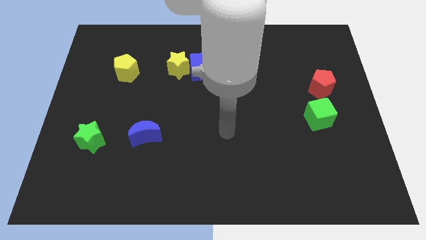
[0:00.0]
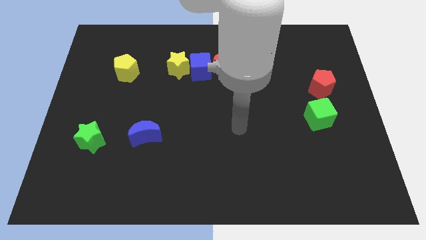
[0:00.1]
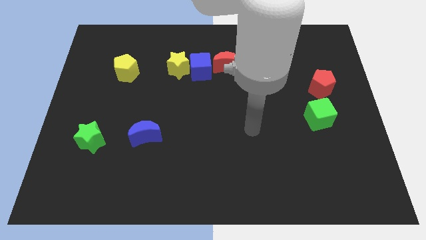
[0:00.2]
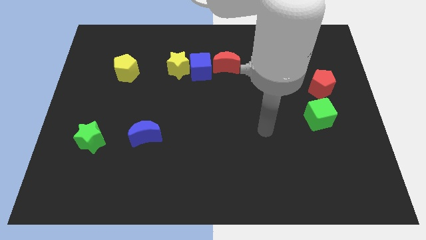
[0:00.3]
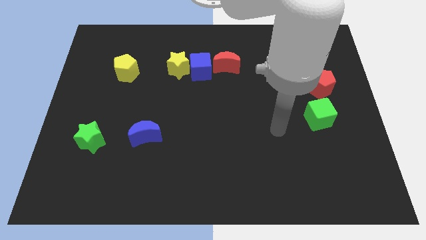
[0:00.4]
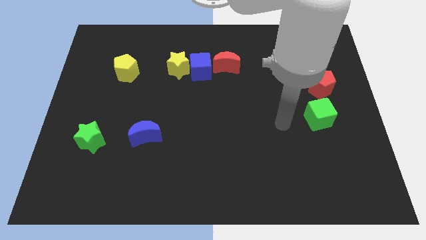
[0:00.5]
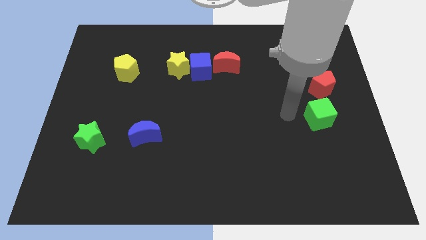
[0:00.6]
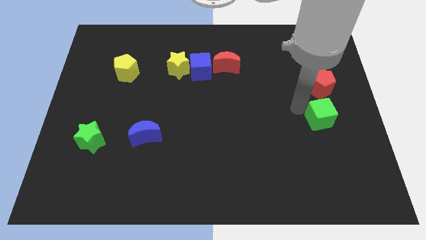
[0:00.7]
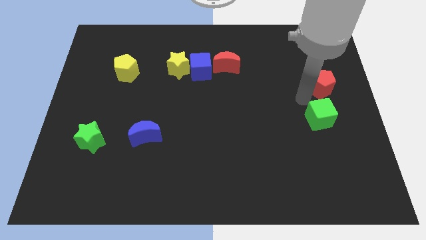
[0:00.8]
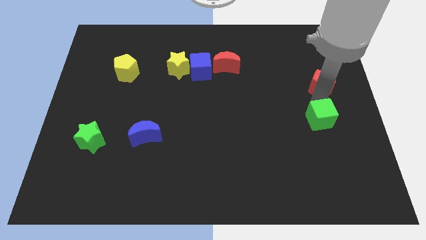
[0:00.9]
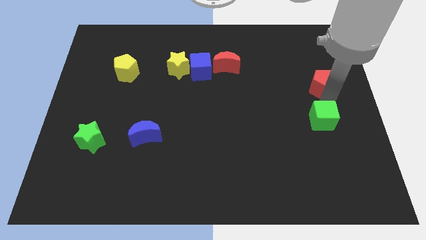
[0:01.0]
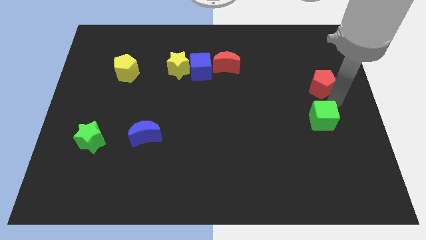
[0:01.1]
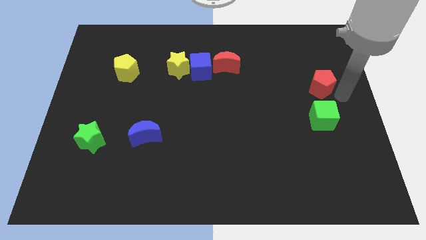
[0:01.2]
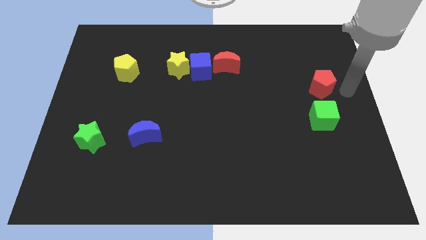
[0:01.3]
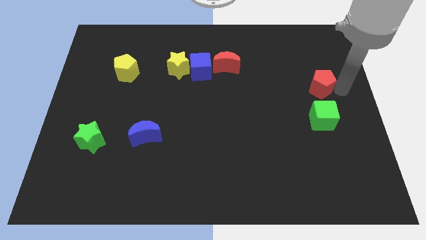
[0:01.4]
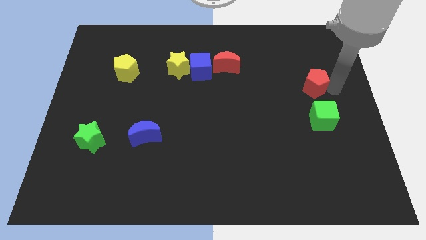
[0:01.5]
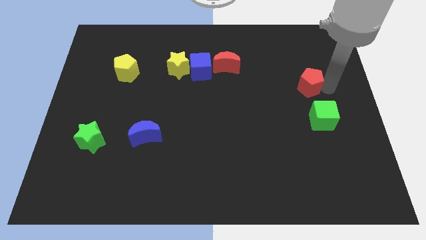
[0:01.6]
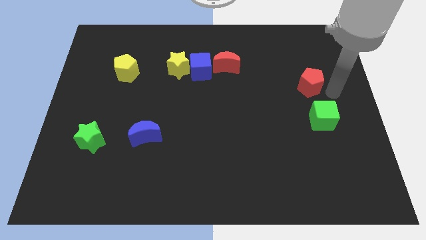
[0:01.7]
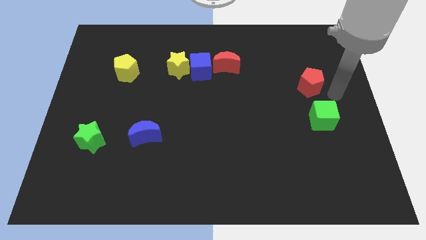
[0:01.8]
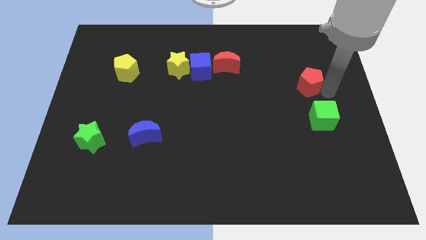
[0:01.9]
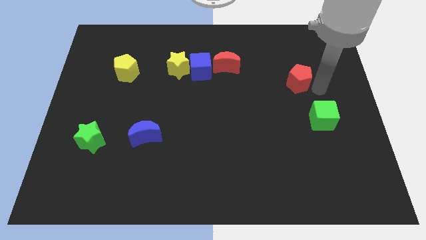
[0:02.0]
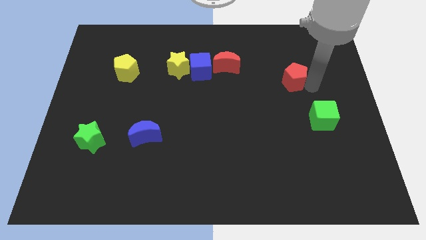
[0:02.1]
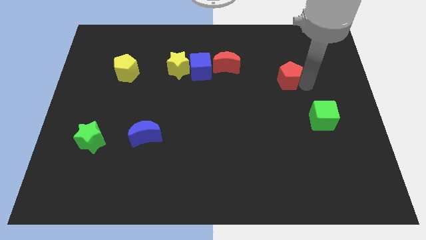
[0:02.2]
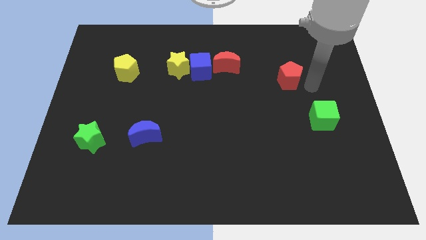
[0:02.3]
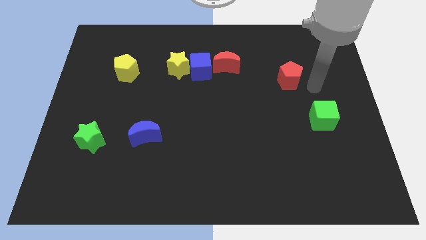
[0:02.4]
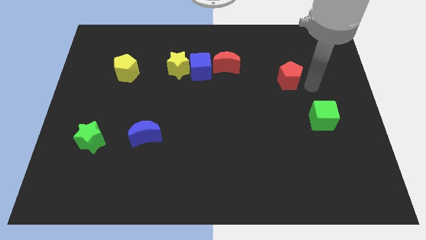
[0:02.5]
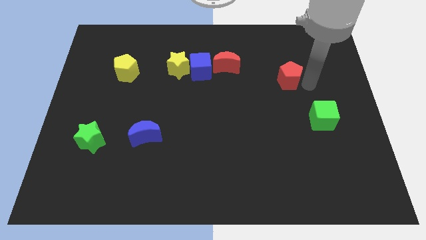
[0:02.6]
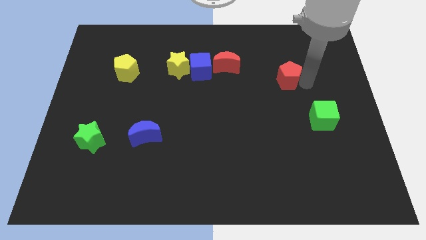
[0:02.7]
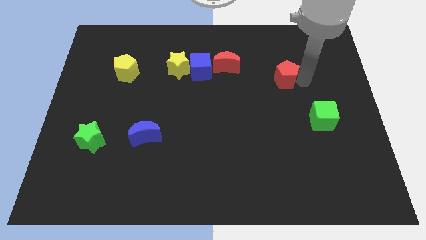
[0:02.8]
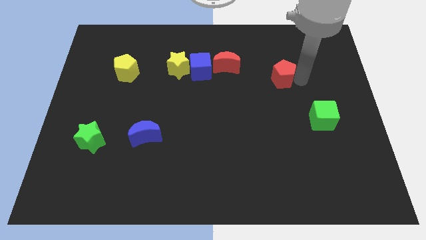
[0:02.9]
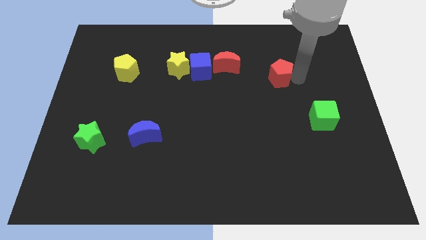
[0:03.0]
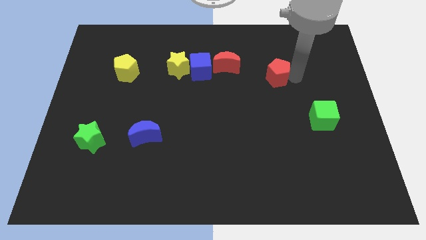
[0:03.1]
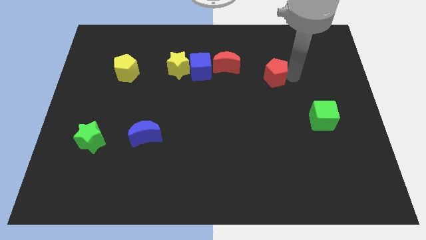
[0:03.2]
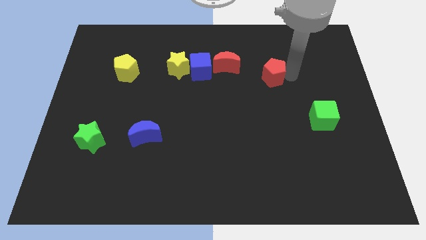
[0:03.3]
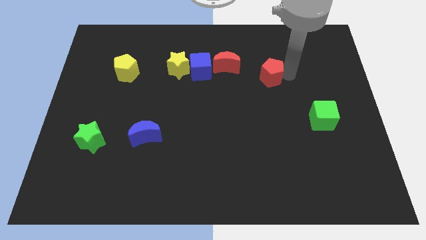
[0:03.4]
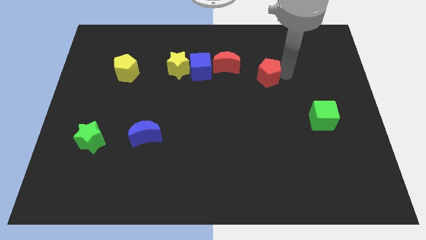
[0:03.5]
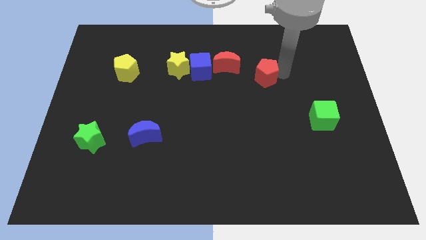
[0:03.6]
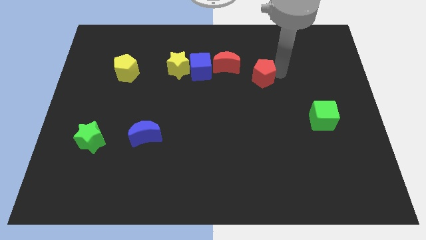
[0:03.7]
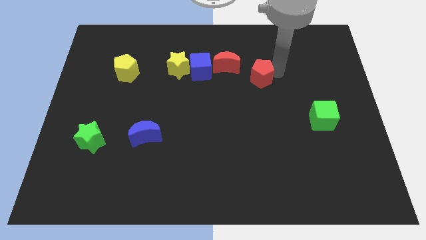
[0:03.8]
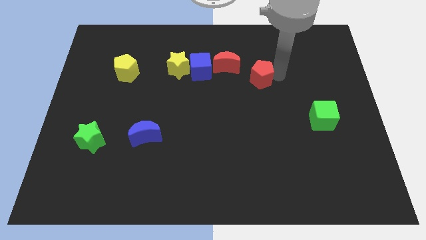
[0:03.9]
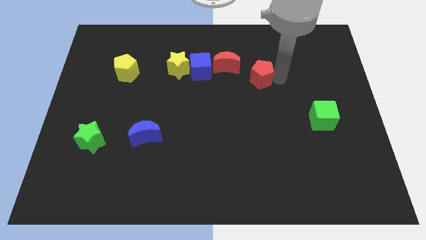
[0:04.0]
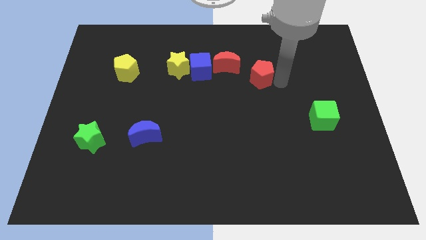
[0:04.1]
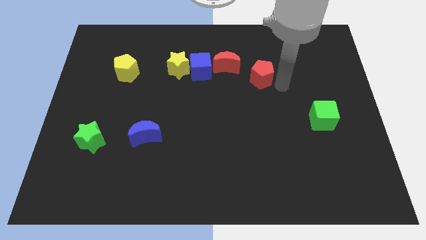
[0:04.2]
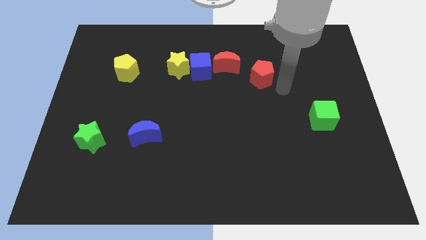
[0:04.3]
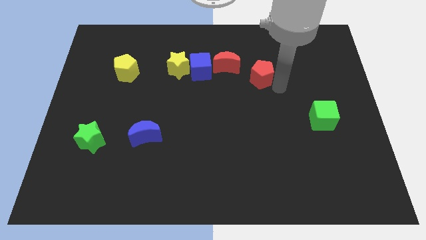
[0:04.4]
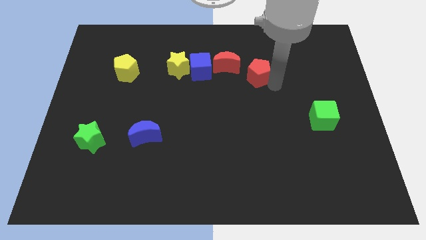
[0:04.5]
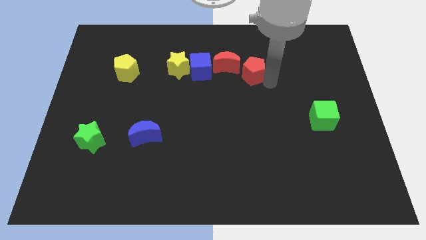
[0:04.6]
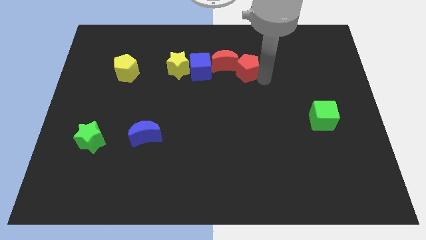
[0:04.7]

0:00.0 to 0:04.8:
push the red pentagon towards the red moon

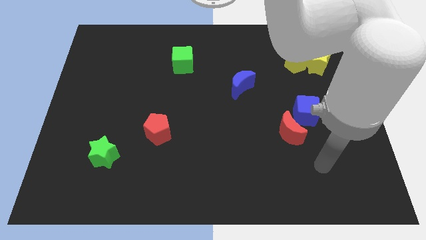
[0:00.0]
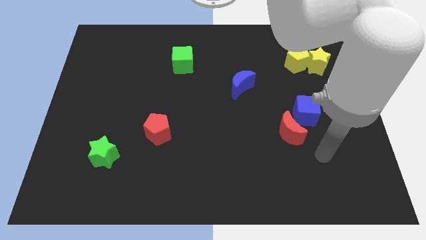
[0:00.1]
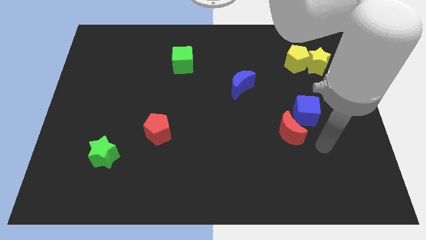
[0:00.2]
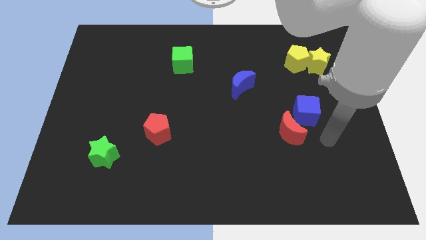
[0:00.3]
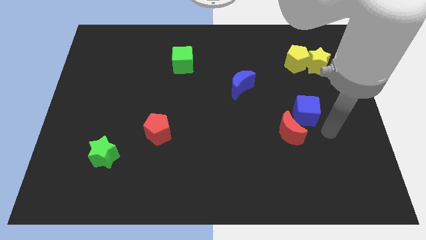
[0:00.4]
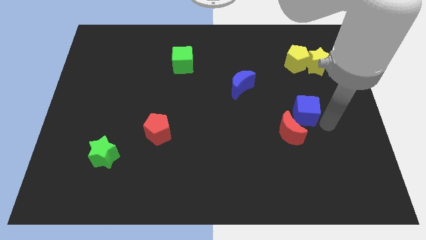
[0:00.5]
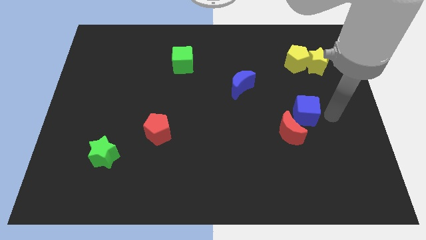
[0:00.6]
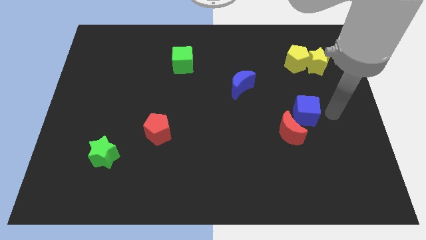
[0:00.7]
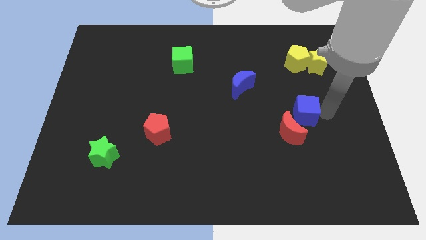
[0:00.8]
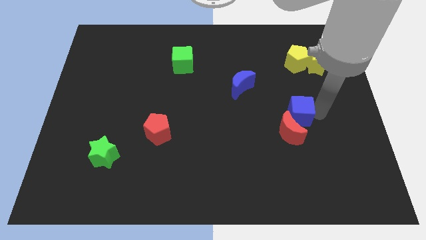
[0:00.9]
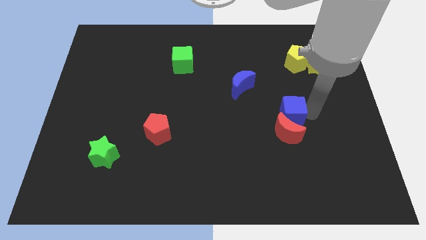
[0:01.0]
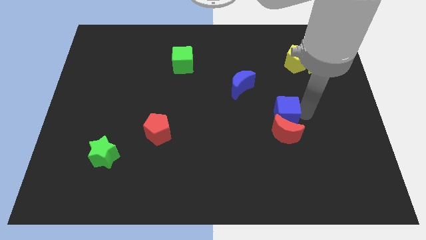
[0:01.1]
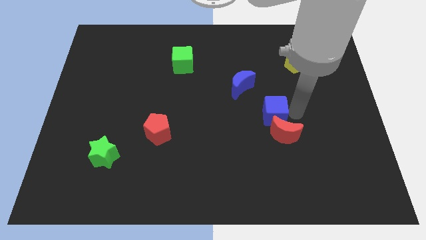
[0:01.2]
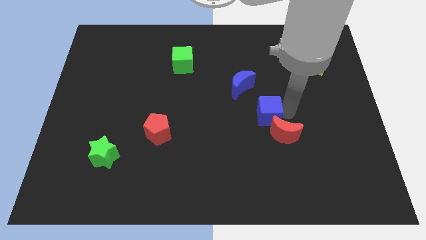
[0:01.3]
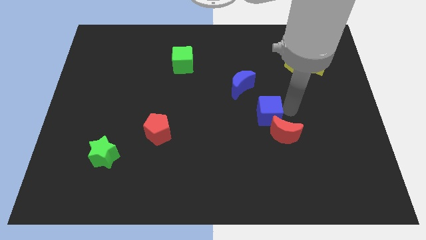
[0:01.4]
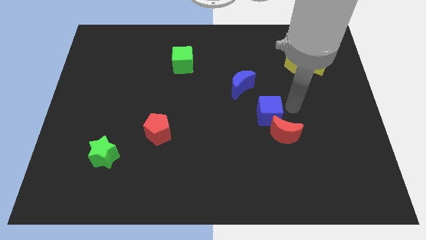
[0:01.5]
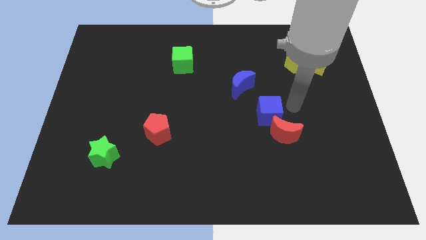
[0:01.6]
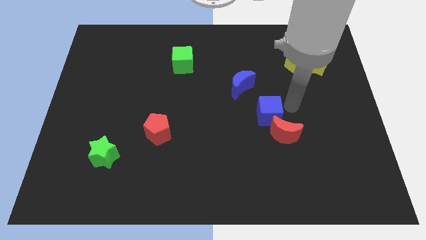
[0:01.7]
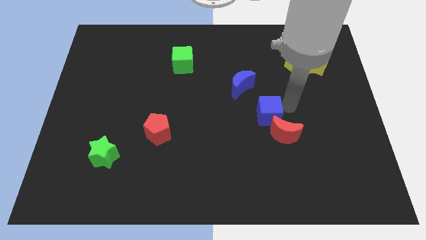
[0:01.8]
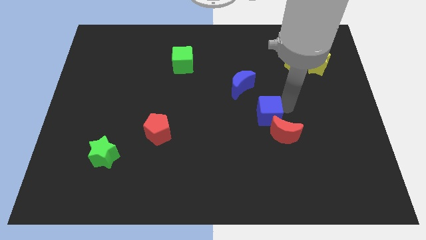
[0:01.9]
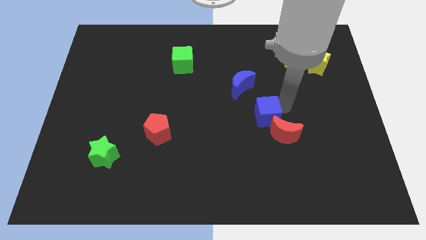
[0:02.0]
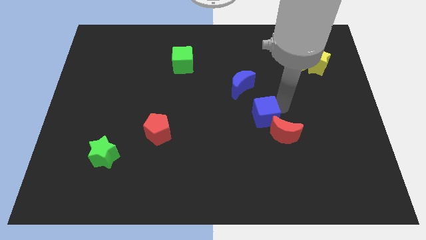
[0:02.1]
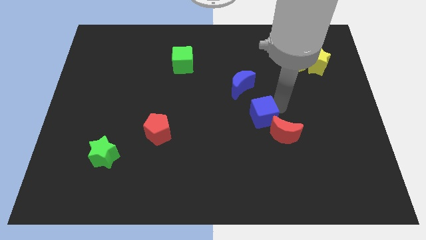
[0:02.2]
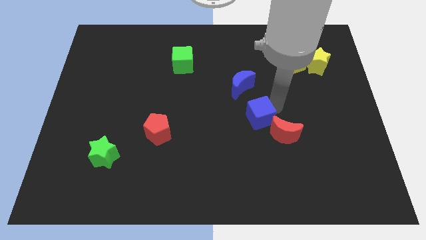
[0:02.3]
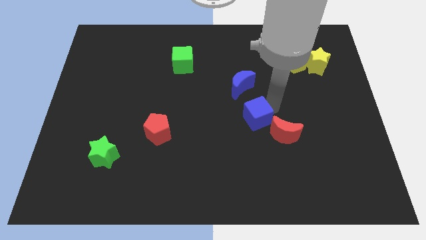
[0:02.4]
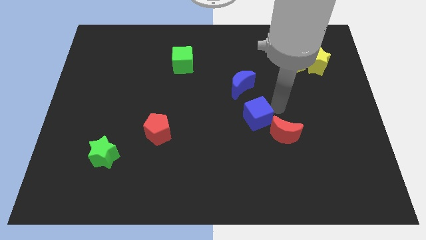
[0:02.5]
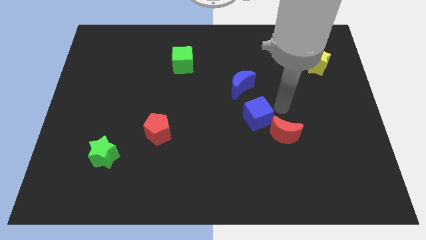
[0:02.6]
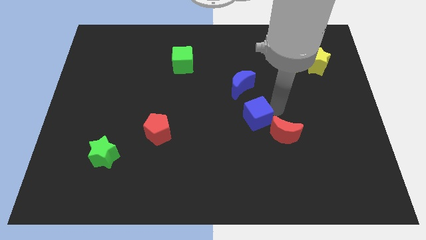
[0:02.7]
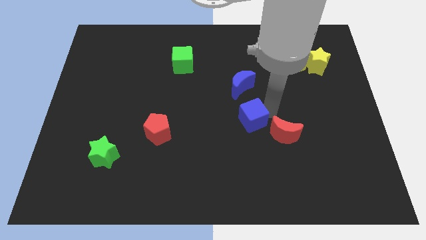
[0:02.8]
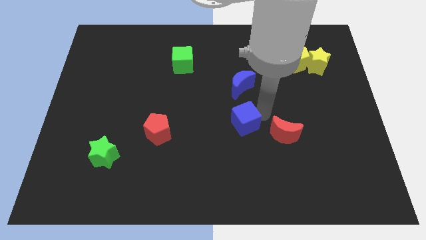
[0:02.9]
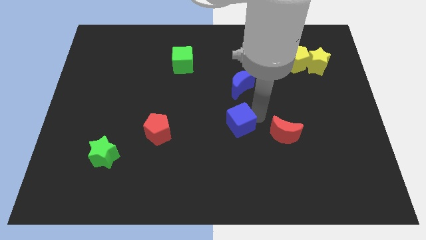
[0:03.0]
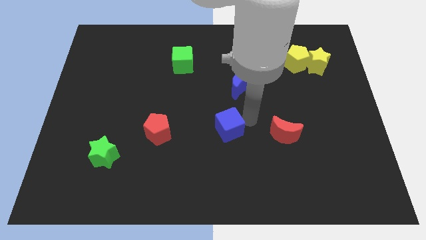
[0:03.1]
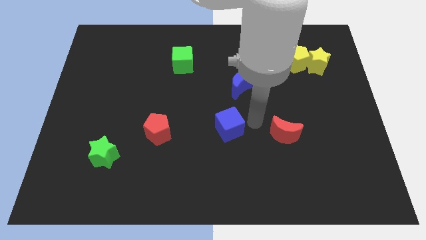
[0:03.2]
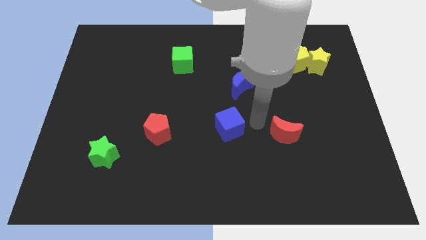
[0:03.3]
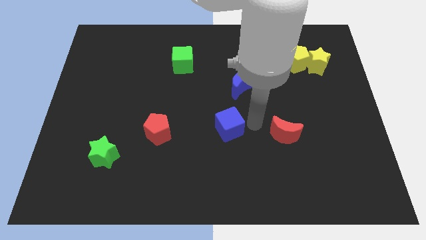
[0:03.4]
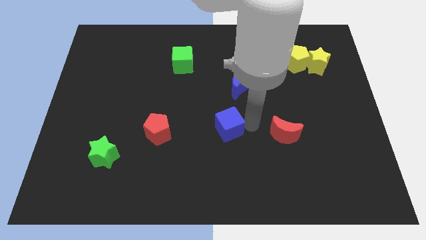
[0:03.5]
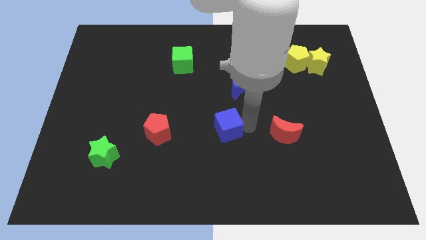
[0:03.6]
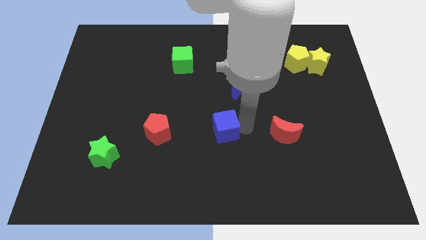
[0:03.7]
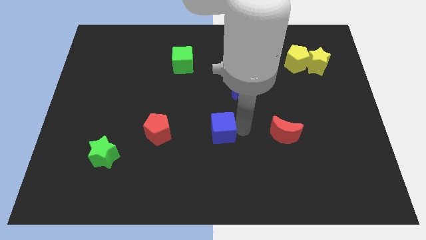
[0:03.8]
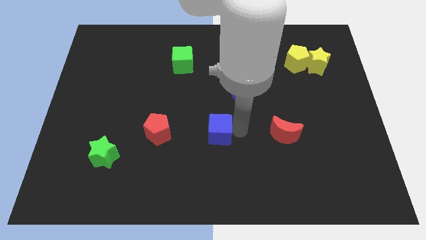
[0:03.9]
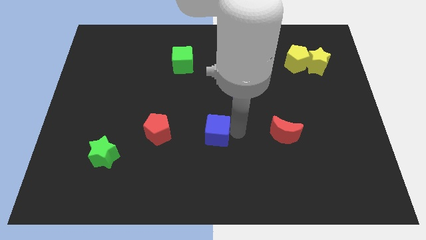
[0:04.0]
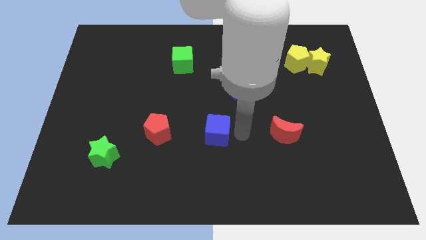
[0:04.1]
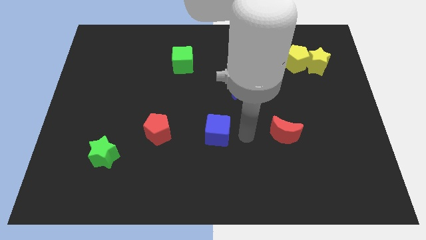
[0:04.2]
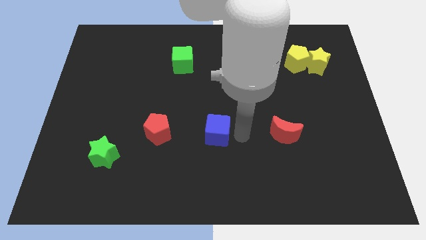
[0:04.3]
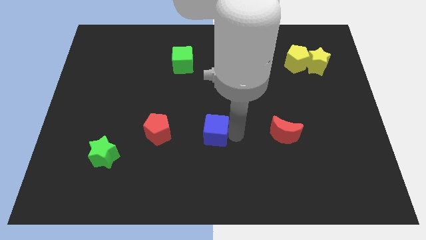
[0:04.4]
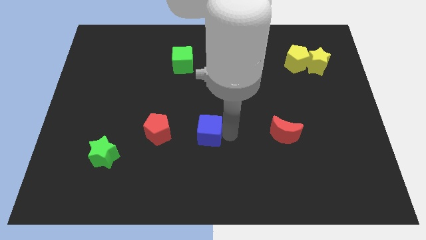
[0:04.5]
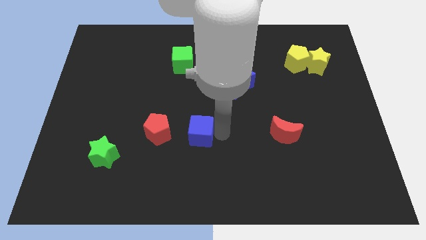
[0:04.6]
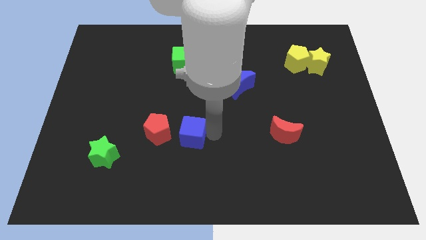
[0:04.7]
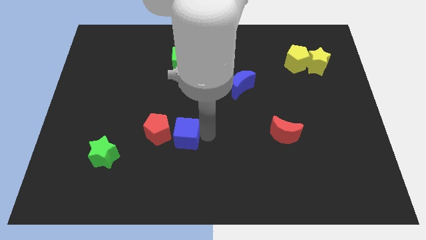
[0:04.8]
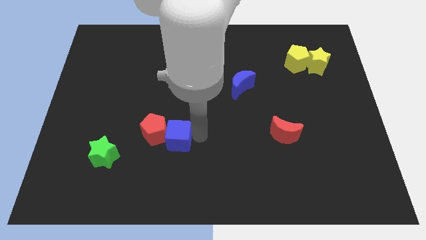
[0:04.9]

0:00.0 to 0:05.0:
put the blue cube close to the red pentagon
